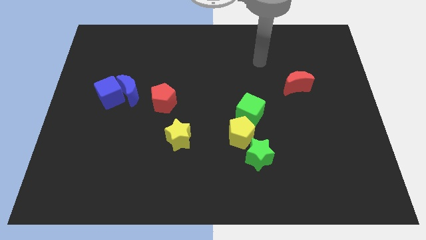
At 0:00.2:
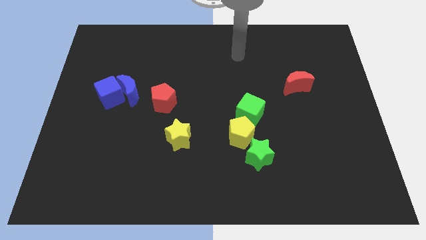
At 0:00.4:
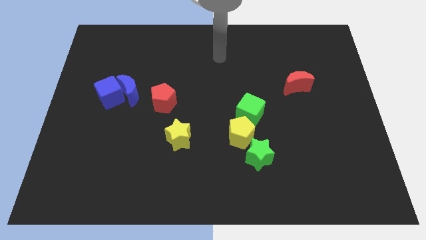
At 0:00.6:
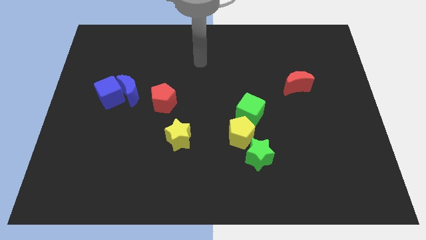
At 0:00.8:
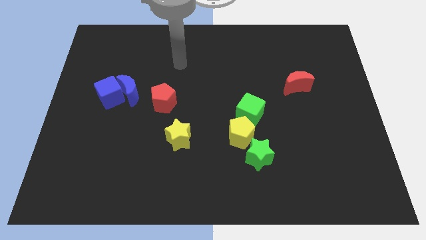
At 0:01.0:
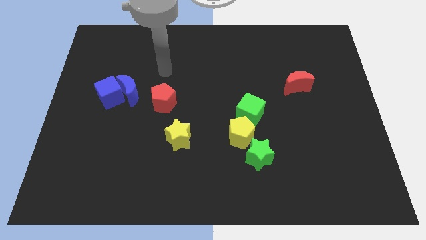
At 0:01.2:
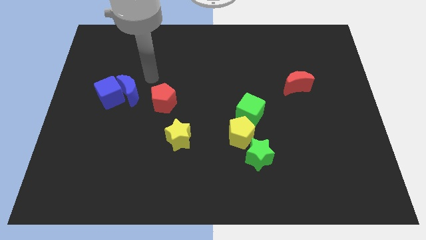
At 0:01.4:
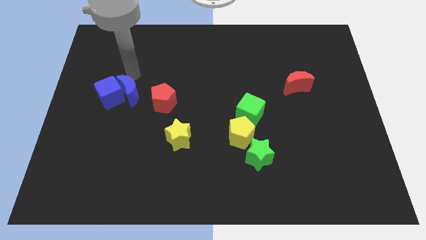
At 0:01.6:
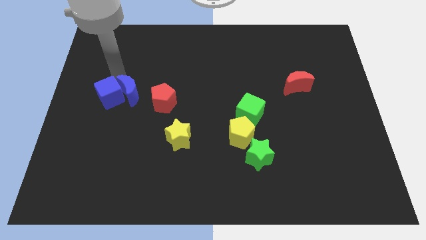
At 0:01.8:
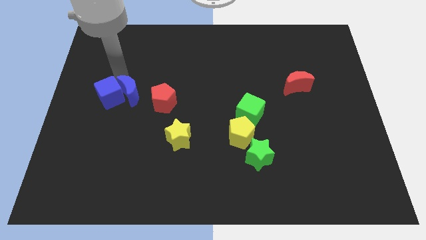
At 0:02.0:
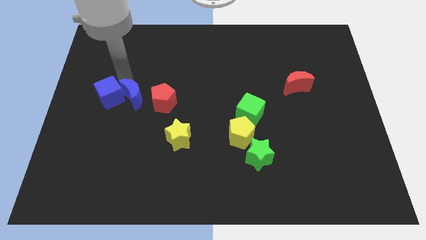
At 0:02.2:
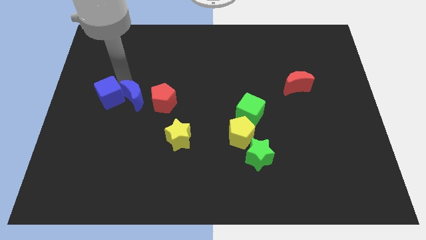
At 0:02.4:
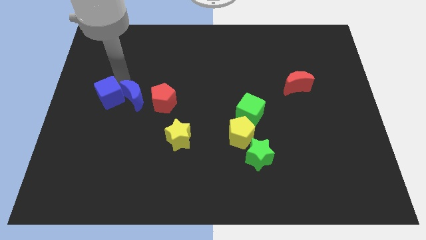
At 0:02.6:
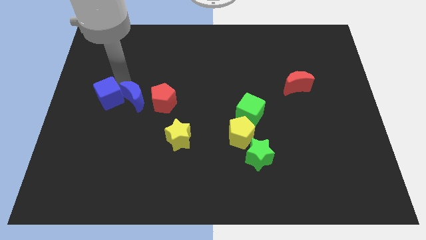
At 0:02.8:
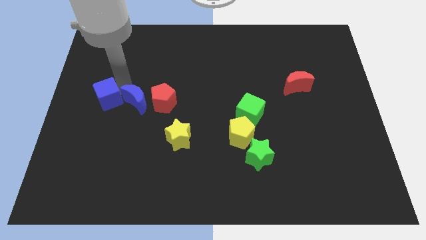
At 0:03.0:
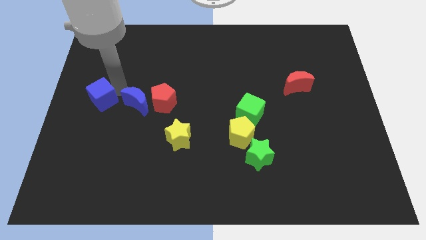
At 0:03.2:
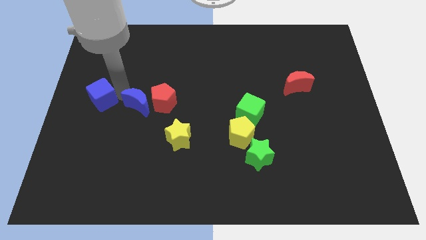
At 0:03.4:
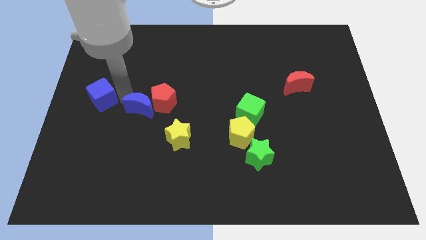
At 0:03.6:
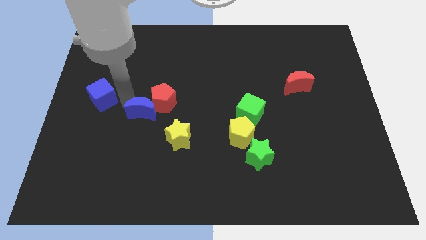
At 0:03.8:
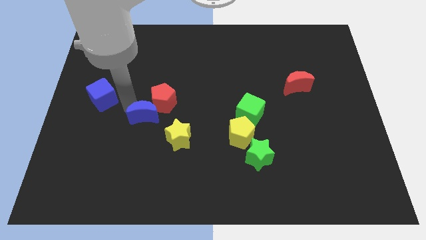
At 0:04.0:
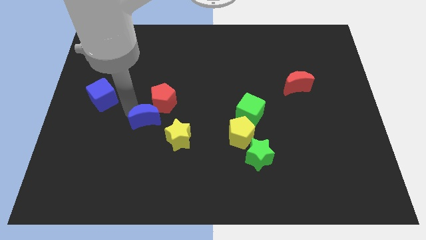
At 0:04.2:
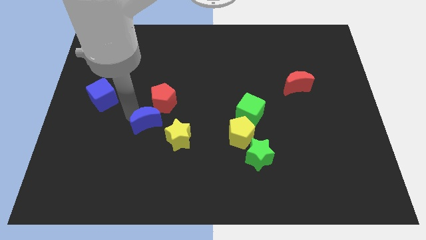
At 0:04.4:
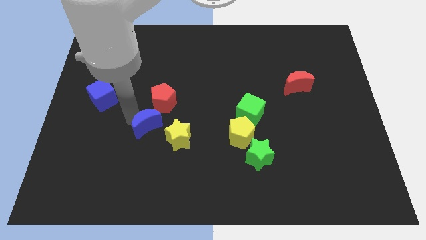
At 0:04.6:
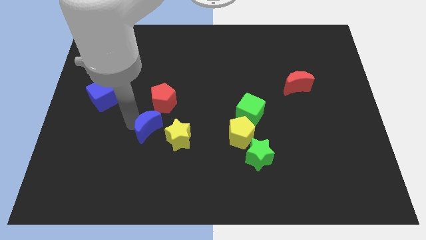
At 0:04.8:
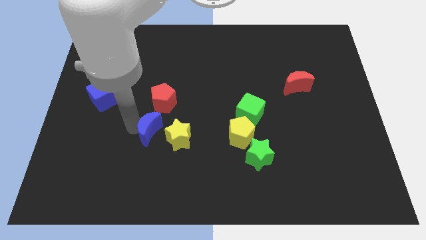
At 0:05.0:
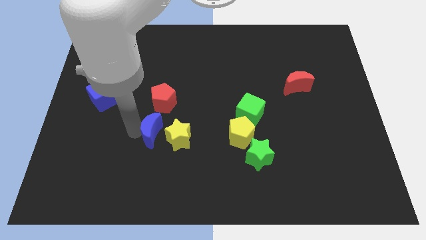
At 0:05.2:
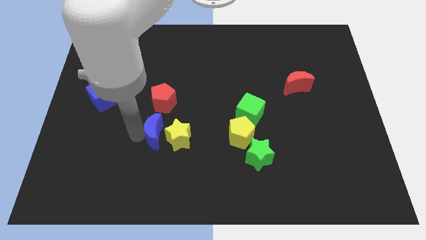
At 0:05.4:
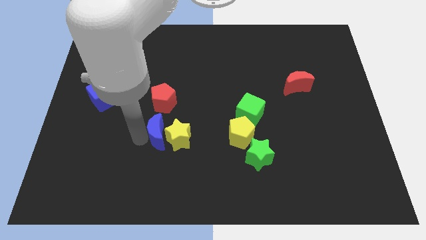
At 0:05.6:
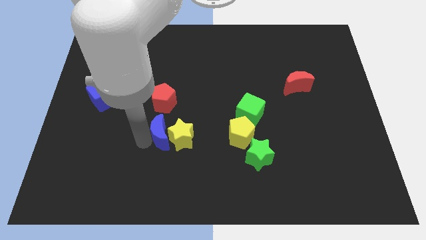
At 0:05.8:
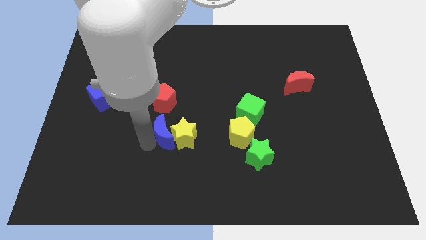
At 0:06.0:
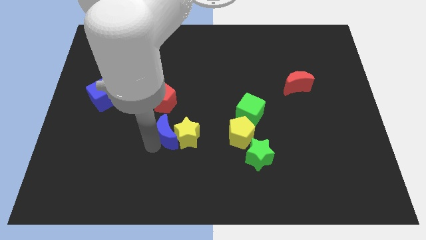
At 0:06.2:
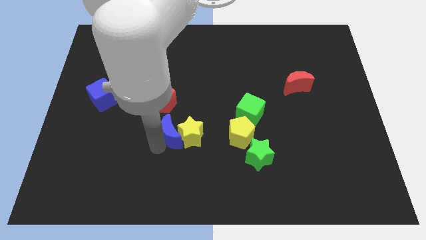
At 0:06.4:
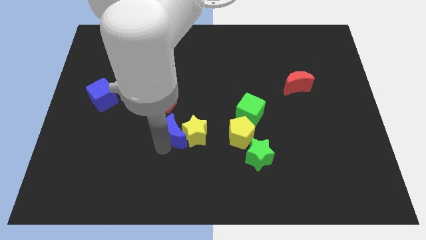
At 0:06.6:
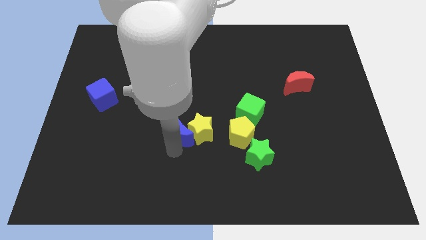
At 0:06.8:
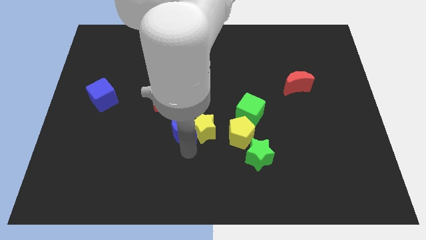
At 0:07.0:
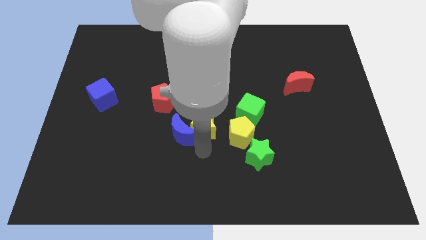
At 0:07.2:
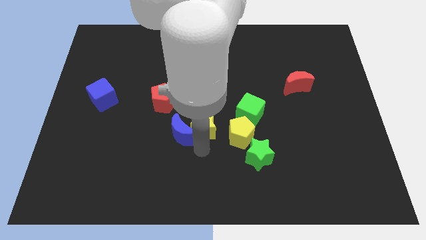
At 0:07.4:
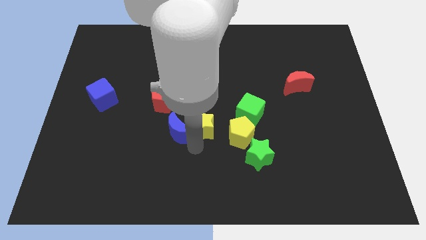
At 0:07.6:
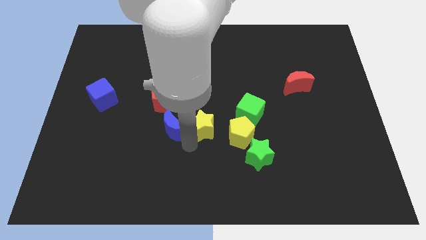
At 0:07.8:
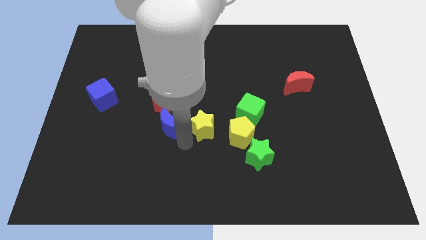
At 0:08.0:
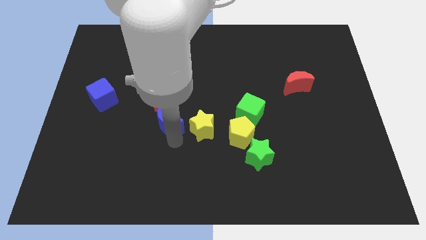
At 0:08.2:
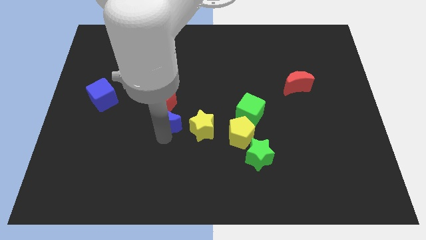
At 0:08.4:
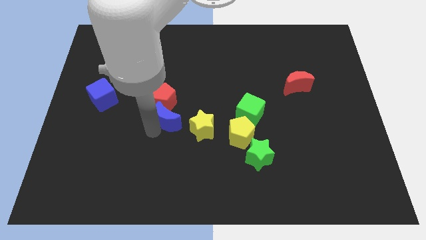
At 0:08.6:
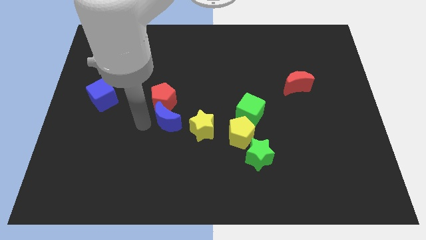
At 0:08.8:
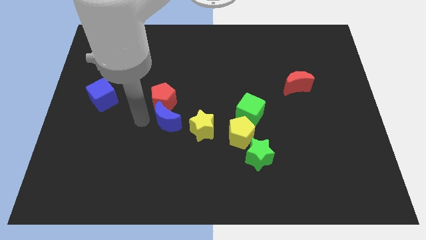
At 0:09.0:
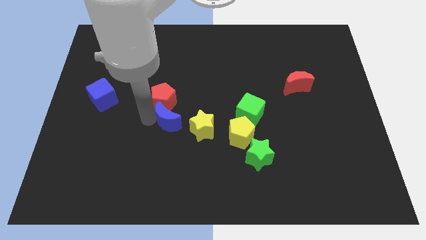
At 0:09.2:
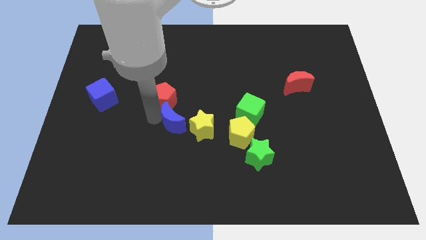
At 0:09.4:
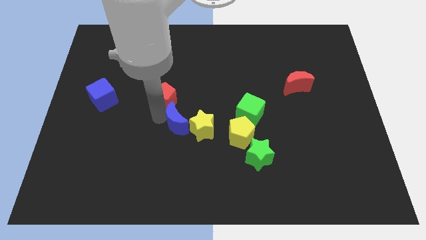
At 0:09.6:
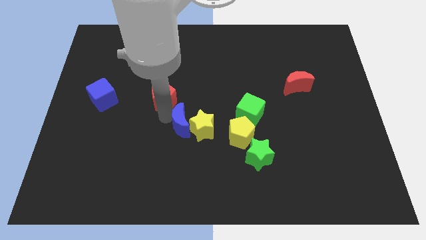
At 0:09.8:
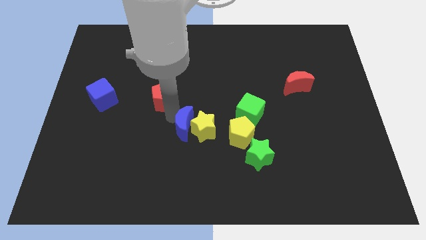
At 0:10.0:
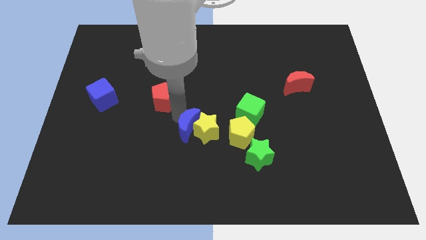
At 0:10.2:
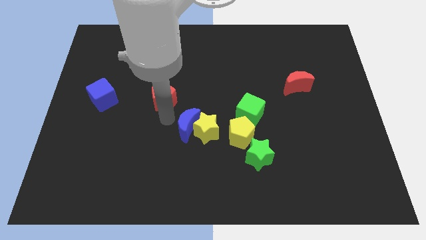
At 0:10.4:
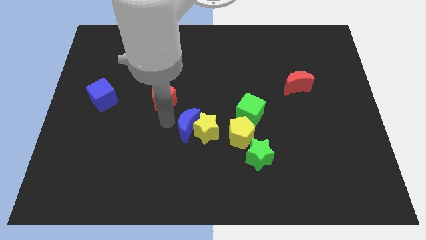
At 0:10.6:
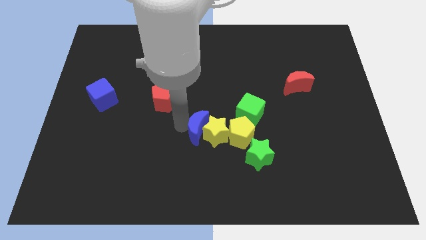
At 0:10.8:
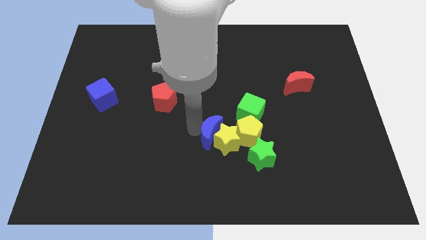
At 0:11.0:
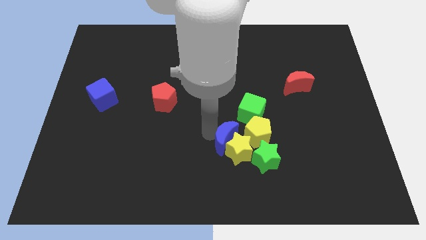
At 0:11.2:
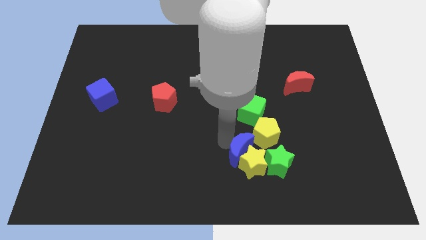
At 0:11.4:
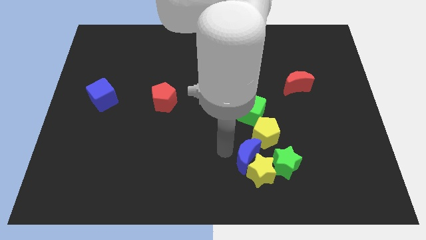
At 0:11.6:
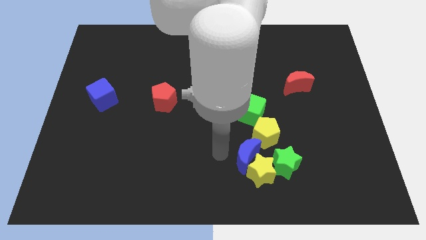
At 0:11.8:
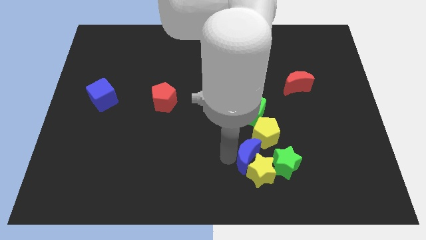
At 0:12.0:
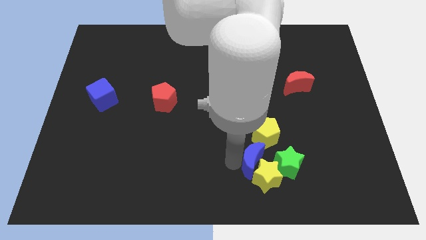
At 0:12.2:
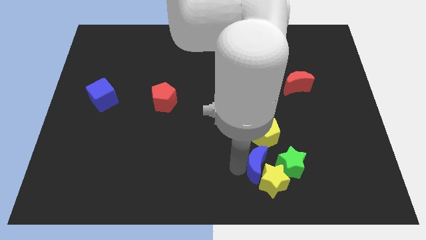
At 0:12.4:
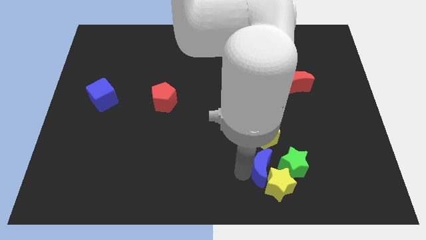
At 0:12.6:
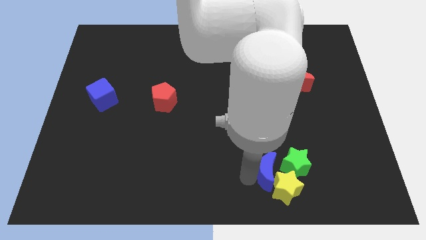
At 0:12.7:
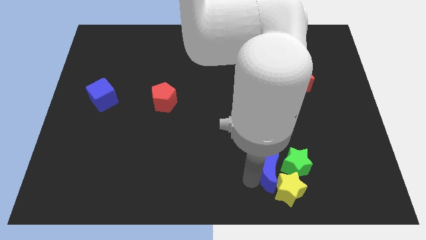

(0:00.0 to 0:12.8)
slide the blue moon close to the green star

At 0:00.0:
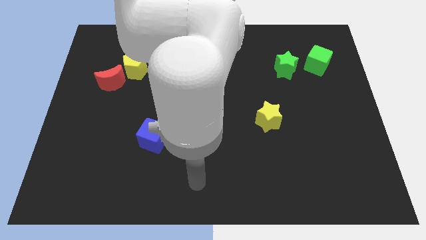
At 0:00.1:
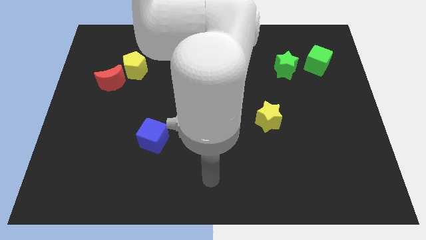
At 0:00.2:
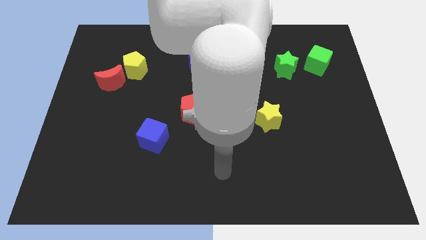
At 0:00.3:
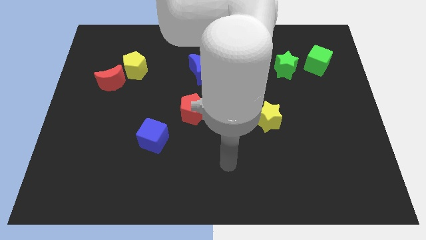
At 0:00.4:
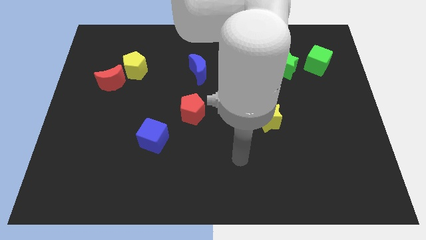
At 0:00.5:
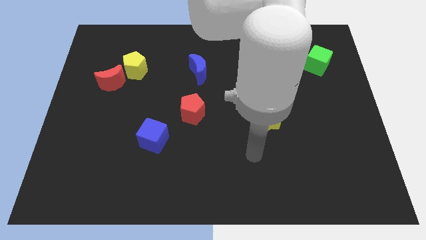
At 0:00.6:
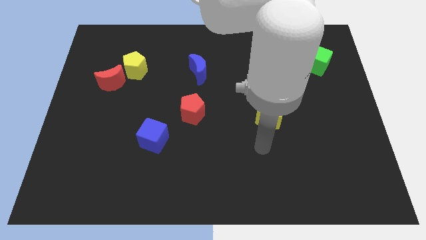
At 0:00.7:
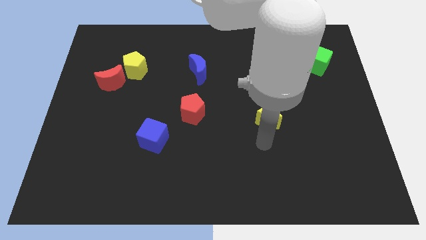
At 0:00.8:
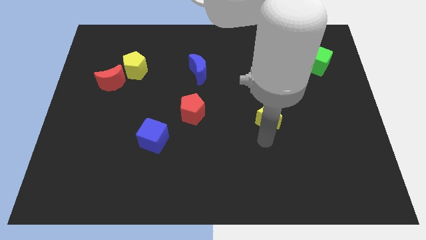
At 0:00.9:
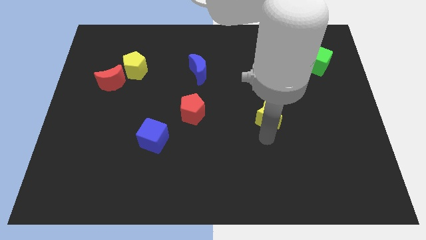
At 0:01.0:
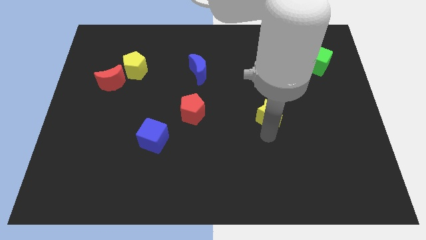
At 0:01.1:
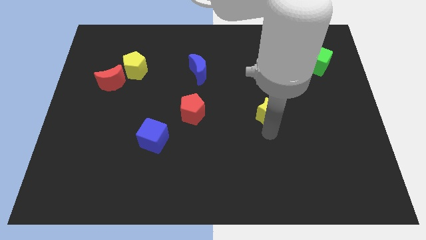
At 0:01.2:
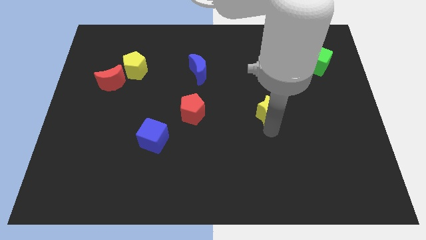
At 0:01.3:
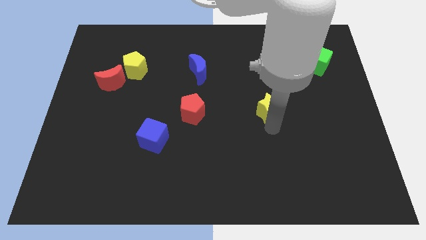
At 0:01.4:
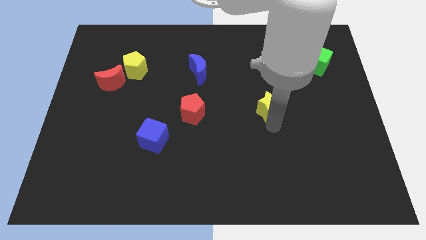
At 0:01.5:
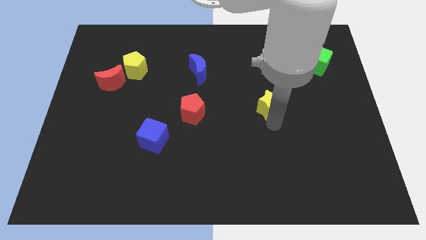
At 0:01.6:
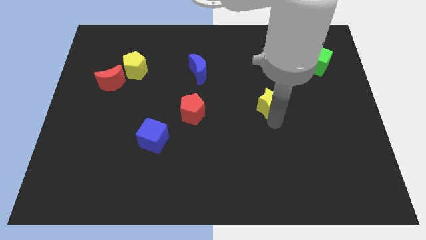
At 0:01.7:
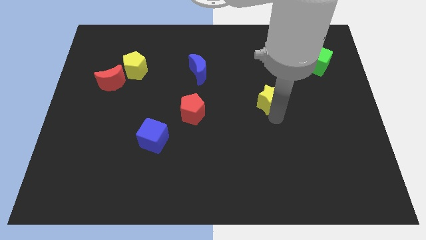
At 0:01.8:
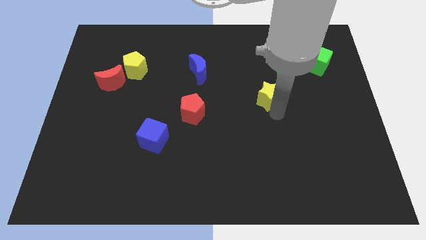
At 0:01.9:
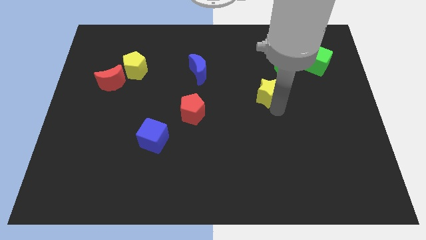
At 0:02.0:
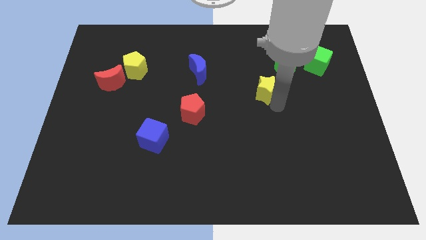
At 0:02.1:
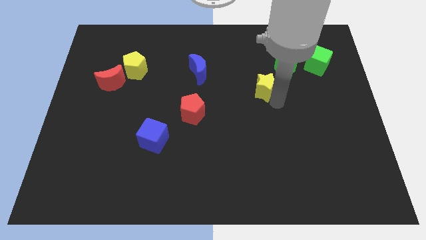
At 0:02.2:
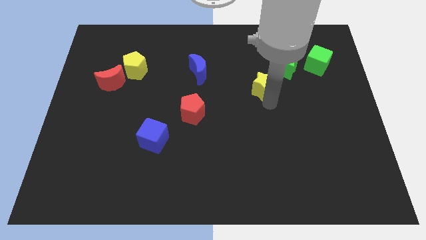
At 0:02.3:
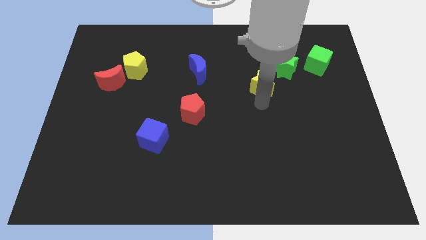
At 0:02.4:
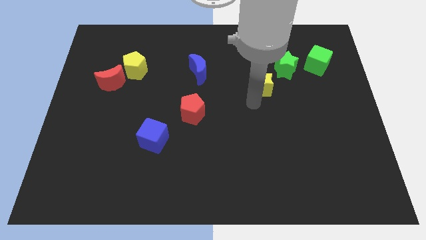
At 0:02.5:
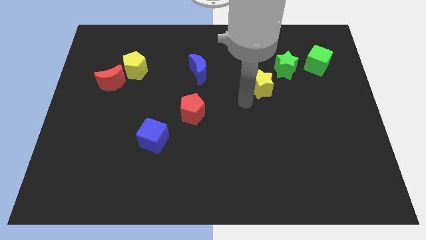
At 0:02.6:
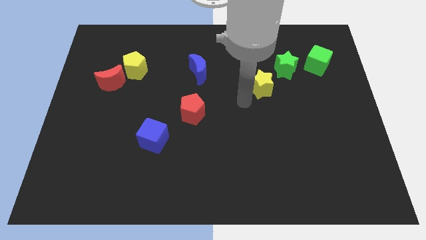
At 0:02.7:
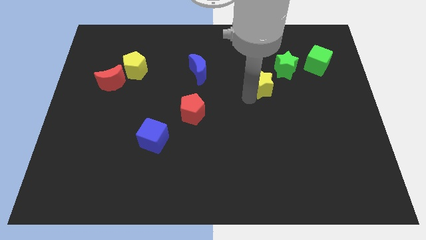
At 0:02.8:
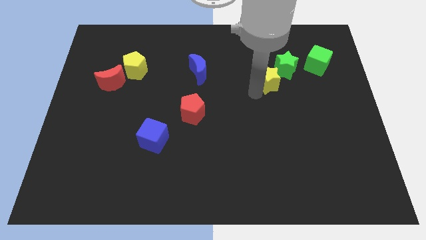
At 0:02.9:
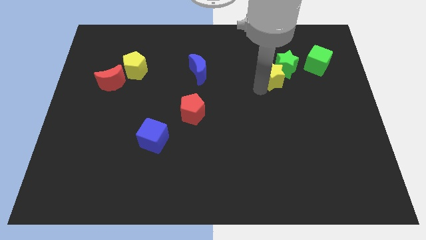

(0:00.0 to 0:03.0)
push the yellow star next to the green star
